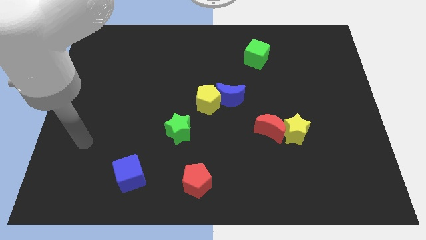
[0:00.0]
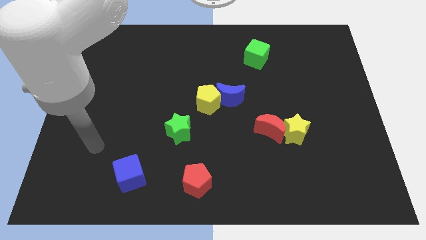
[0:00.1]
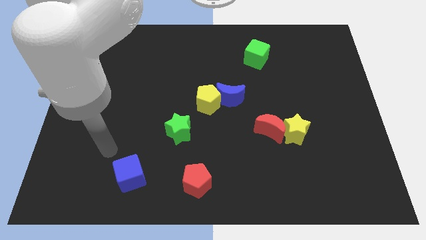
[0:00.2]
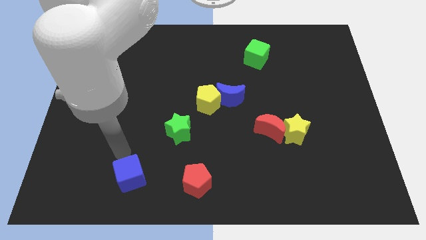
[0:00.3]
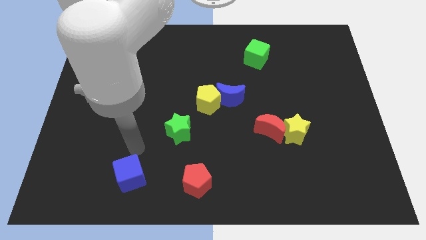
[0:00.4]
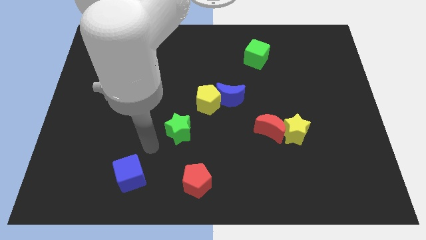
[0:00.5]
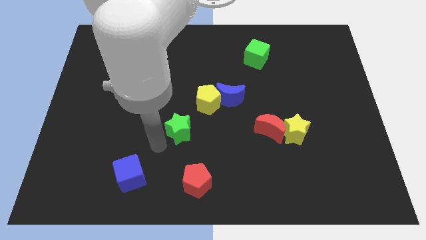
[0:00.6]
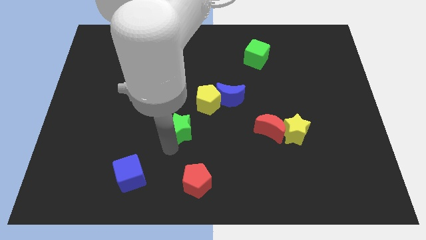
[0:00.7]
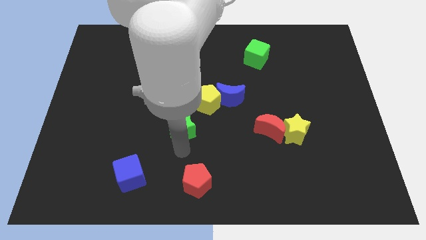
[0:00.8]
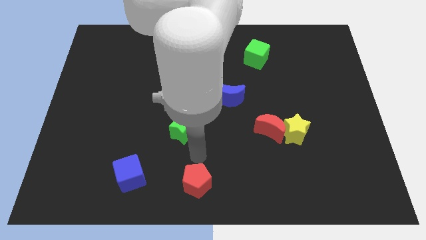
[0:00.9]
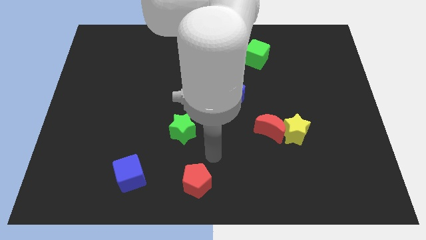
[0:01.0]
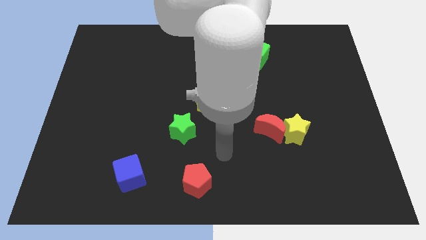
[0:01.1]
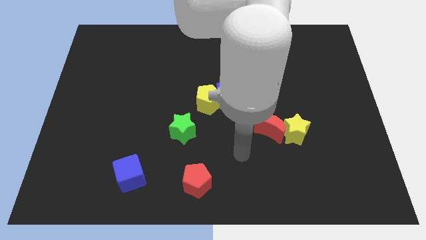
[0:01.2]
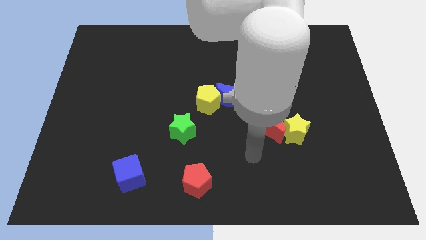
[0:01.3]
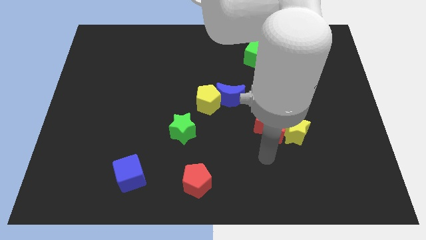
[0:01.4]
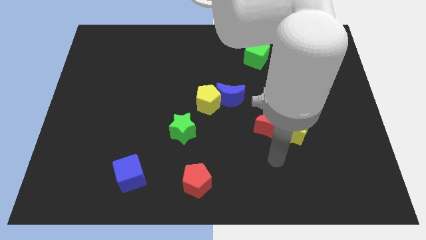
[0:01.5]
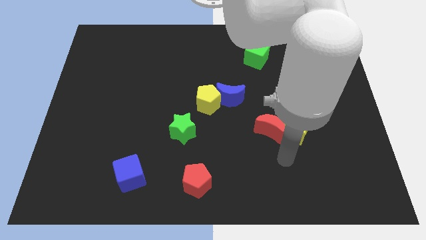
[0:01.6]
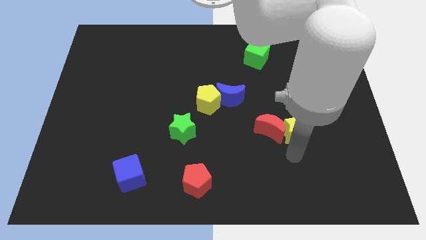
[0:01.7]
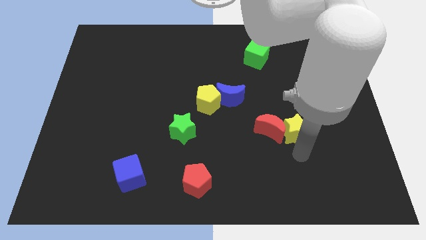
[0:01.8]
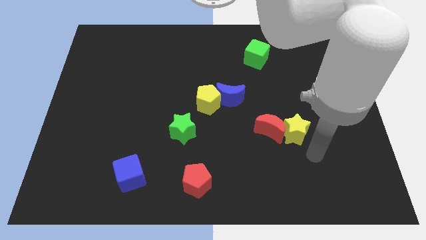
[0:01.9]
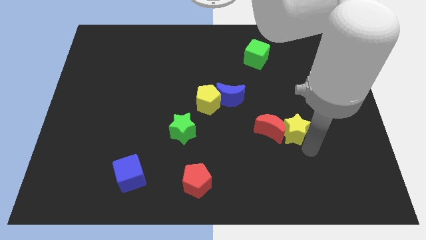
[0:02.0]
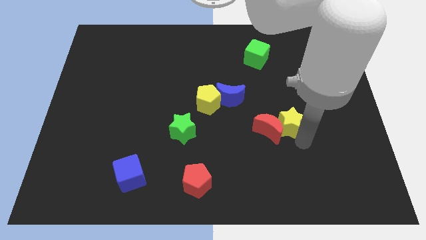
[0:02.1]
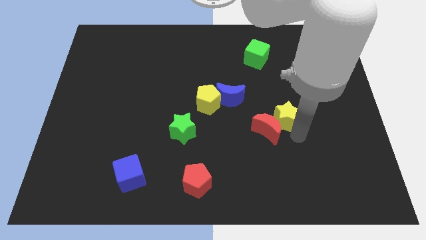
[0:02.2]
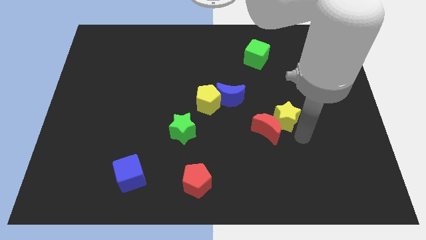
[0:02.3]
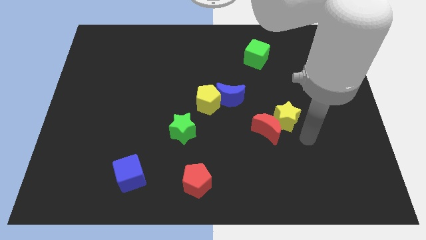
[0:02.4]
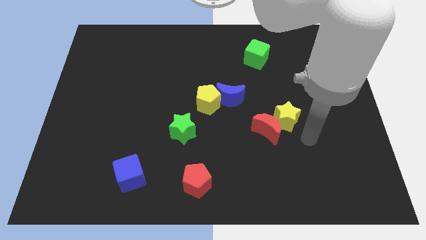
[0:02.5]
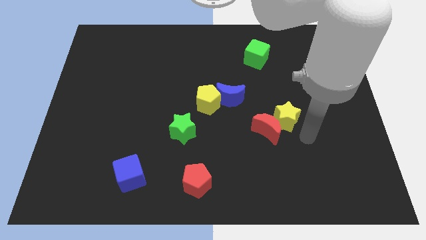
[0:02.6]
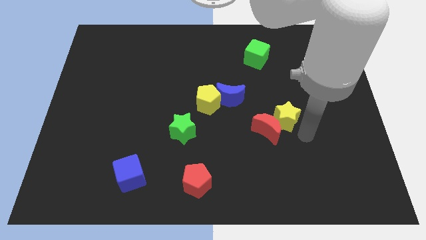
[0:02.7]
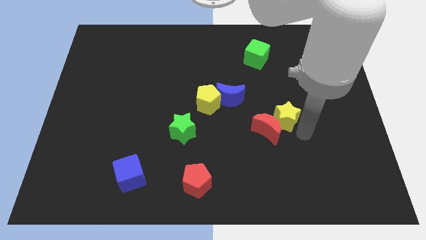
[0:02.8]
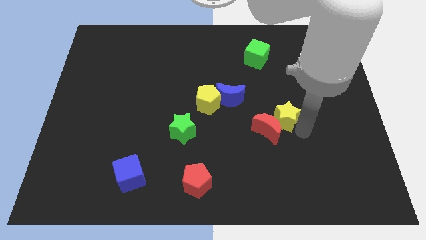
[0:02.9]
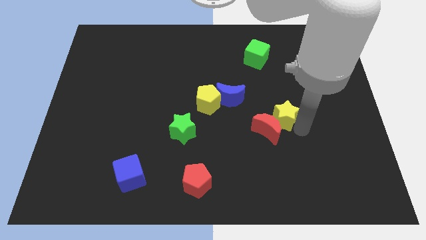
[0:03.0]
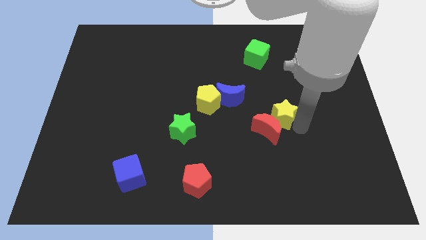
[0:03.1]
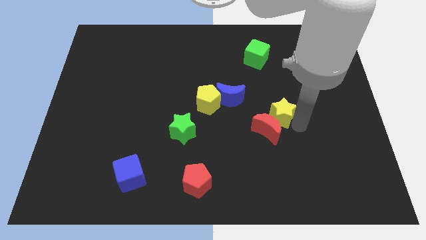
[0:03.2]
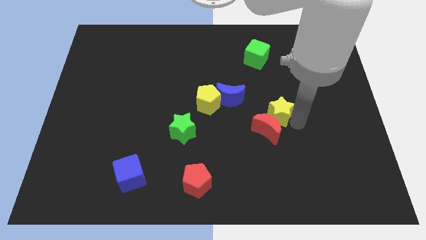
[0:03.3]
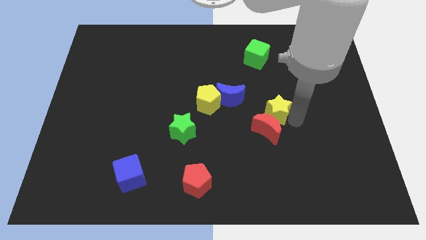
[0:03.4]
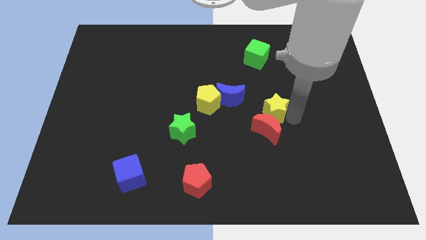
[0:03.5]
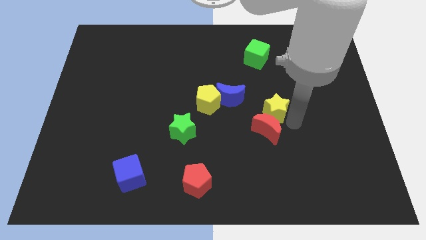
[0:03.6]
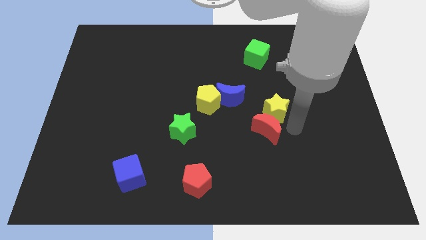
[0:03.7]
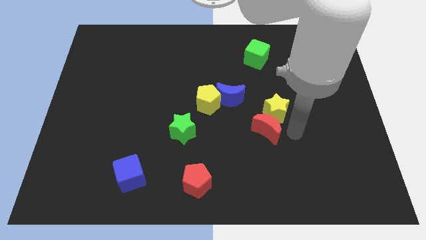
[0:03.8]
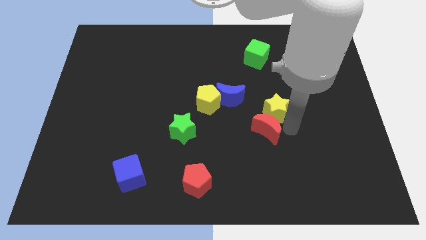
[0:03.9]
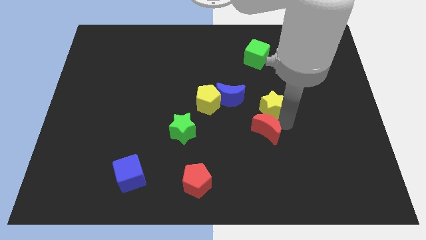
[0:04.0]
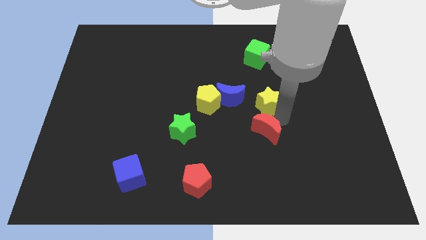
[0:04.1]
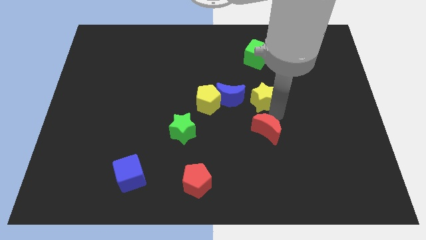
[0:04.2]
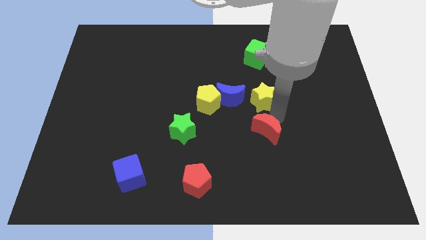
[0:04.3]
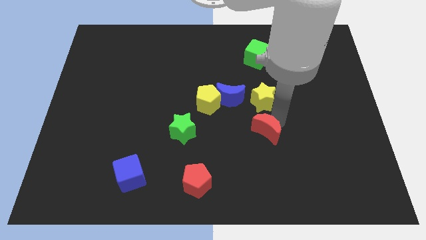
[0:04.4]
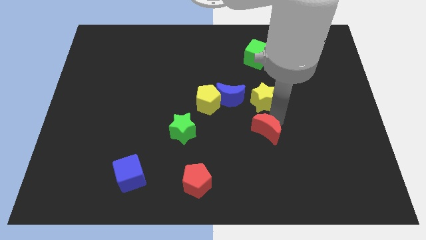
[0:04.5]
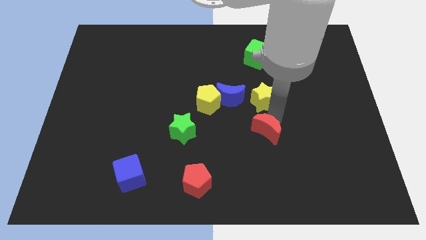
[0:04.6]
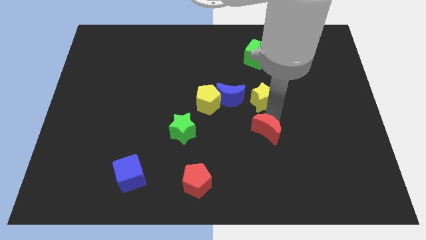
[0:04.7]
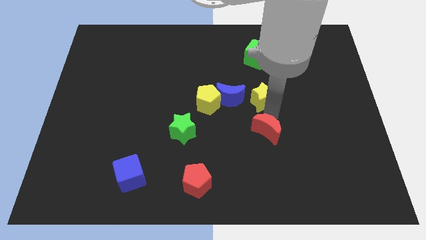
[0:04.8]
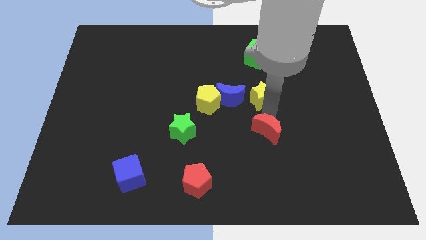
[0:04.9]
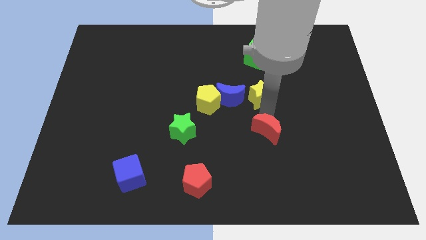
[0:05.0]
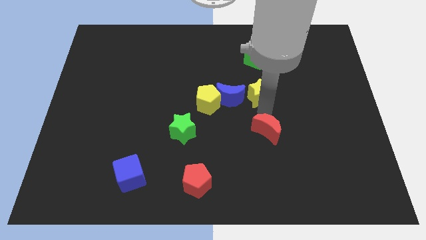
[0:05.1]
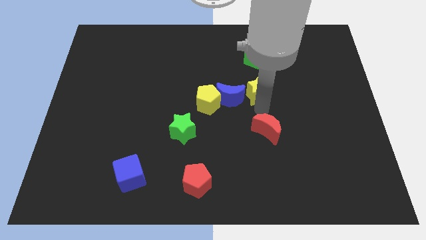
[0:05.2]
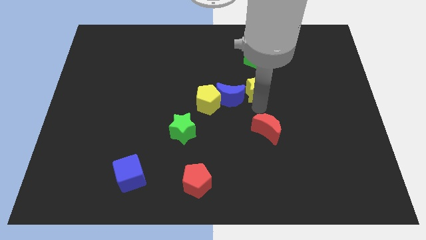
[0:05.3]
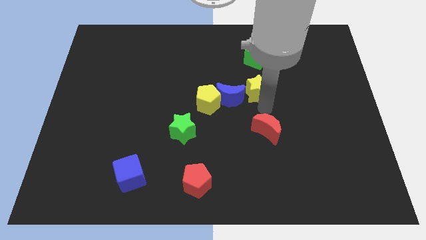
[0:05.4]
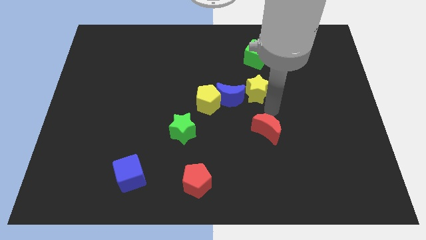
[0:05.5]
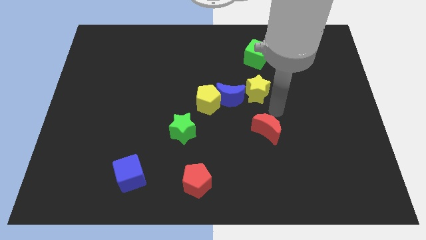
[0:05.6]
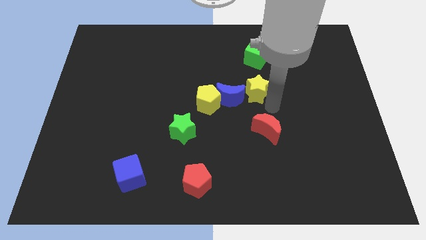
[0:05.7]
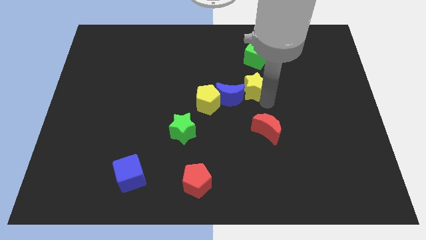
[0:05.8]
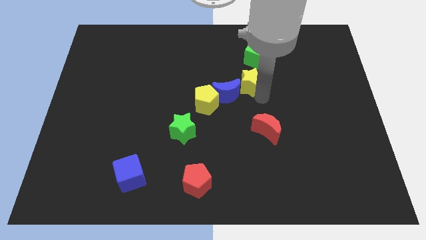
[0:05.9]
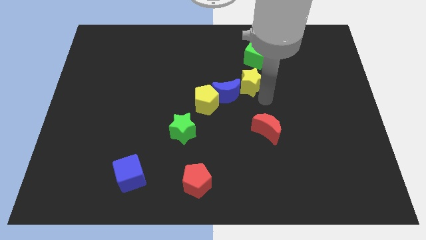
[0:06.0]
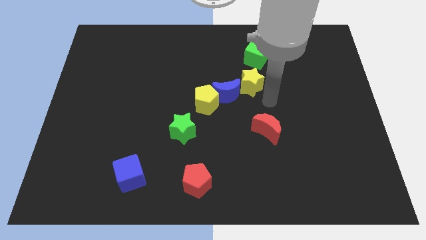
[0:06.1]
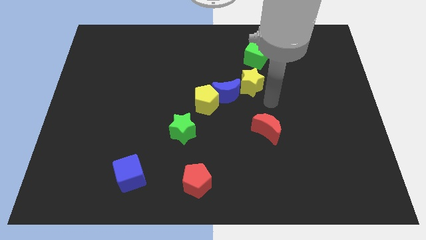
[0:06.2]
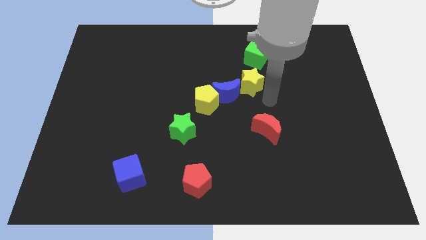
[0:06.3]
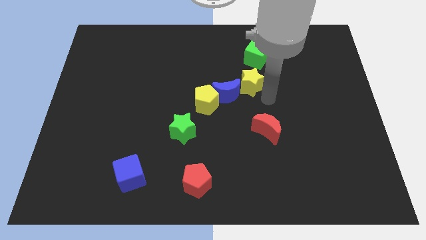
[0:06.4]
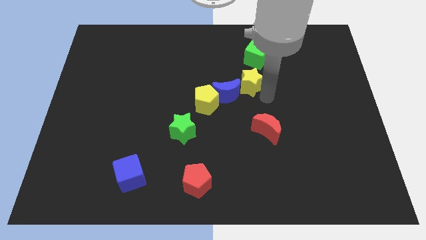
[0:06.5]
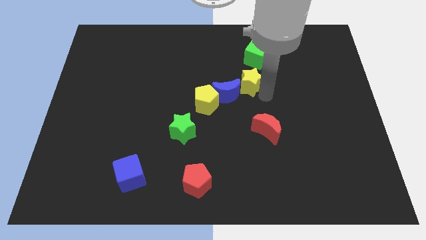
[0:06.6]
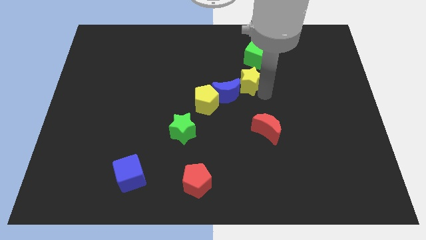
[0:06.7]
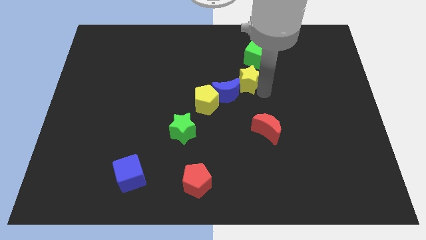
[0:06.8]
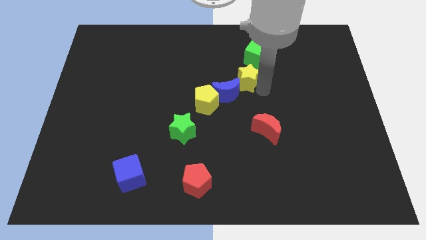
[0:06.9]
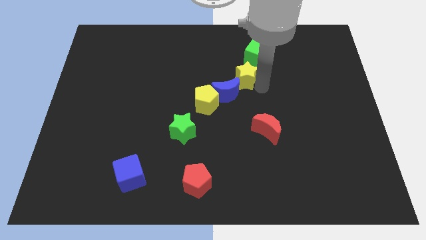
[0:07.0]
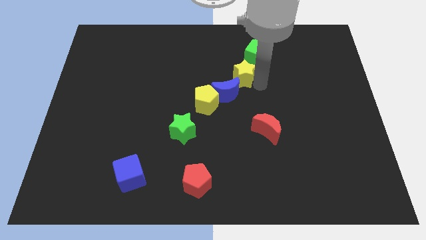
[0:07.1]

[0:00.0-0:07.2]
move the yellow star to the top side of the blue moon

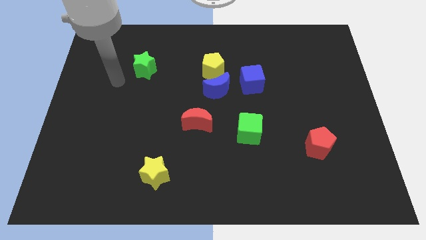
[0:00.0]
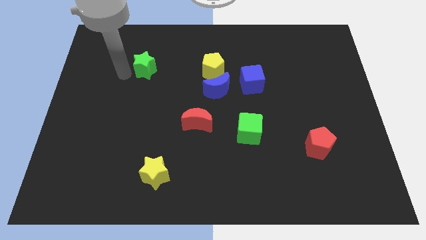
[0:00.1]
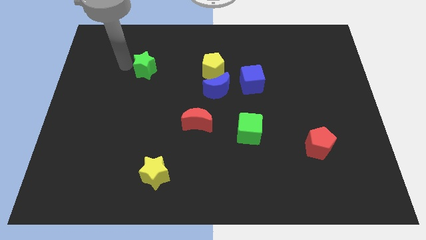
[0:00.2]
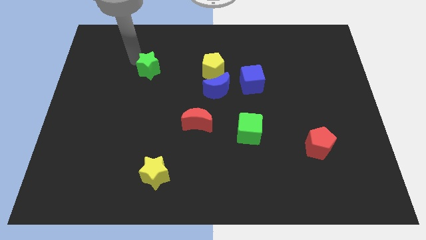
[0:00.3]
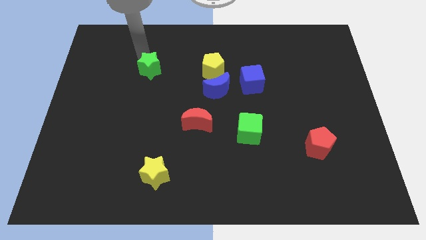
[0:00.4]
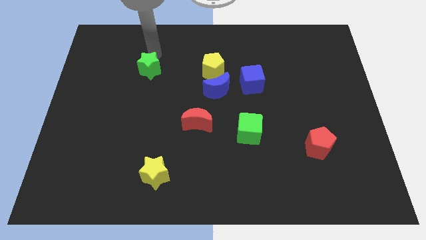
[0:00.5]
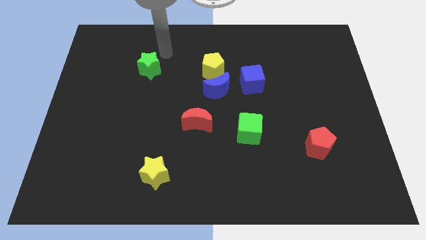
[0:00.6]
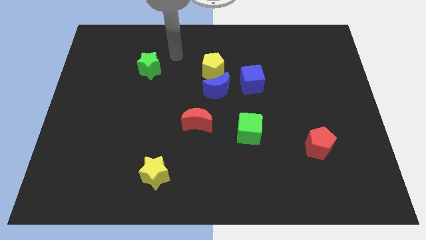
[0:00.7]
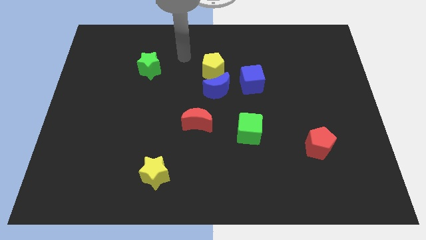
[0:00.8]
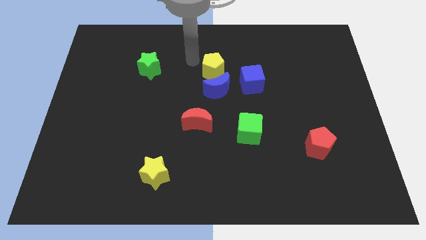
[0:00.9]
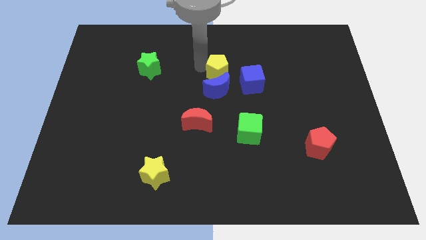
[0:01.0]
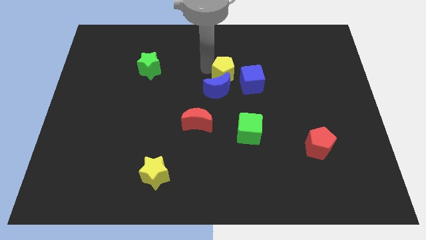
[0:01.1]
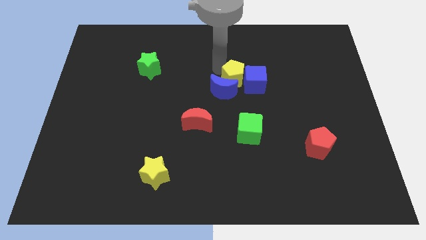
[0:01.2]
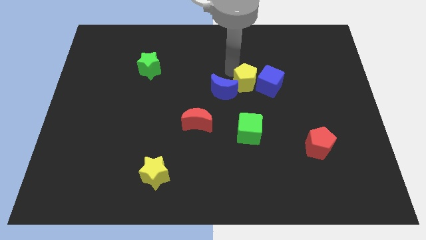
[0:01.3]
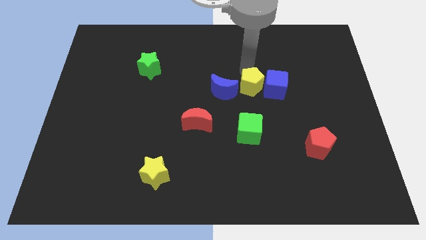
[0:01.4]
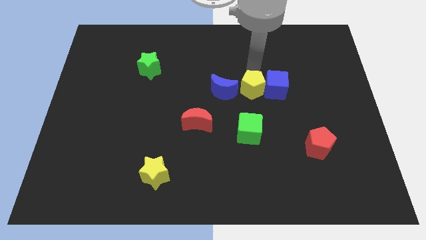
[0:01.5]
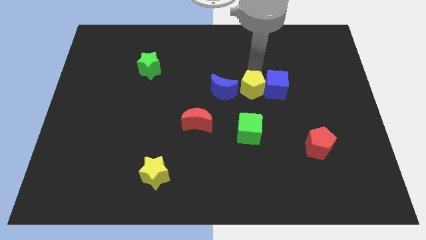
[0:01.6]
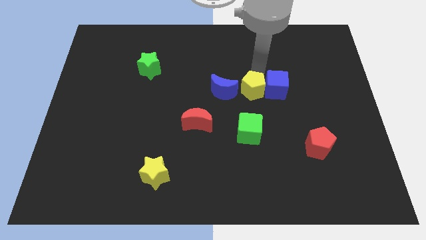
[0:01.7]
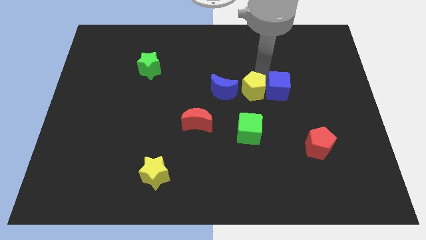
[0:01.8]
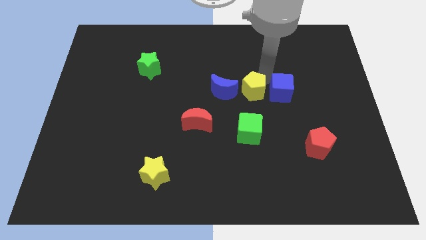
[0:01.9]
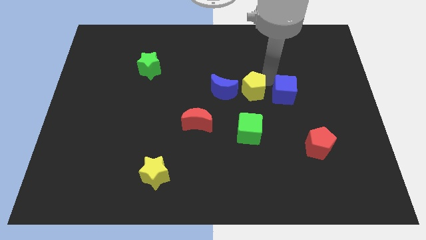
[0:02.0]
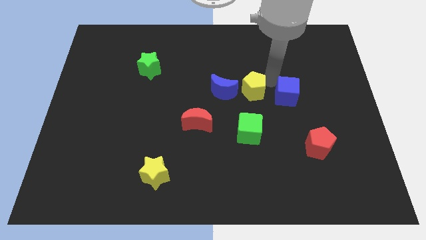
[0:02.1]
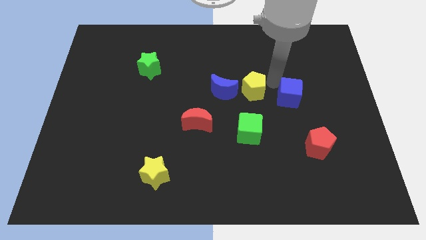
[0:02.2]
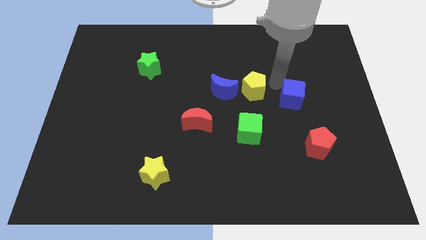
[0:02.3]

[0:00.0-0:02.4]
slide the blue cube to the top of the red pentagon
